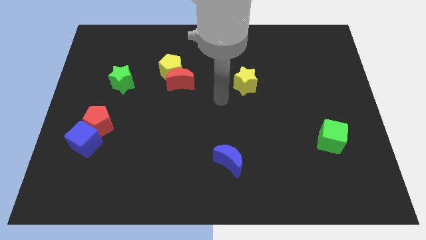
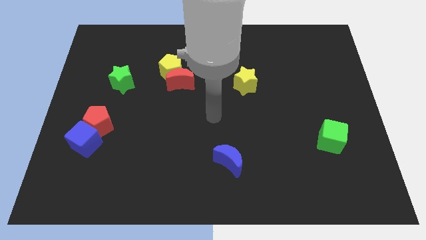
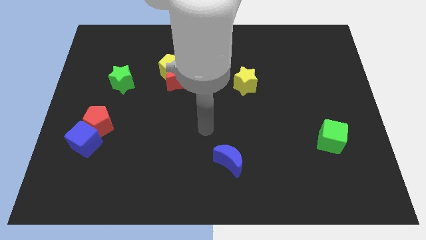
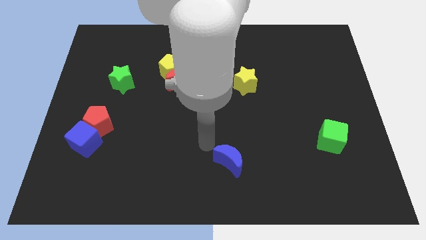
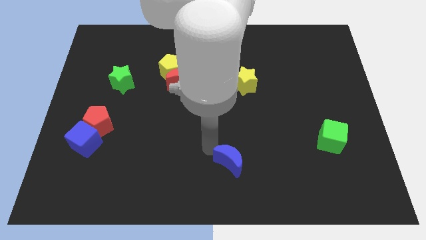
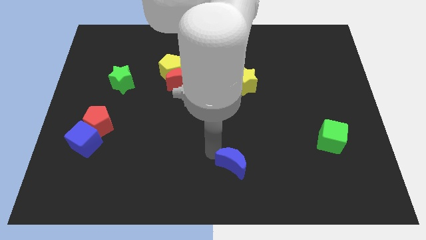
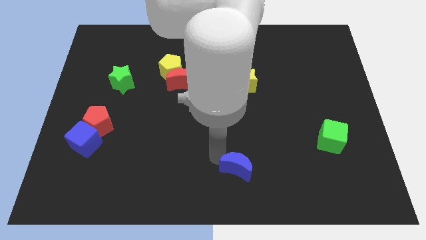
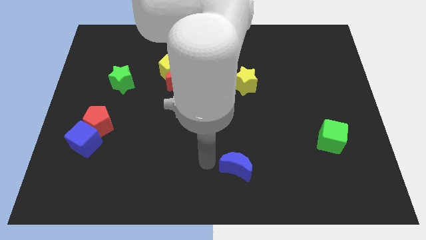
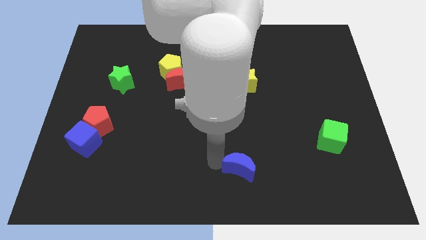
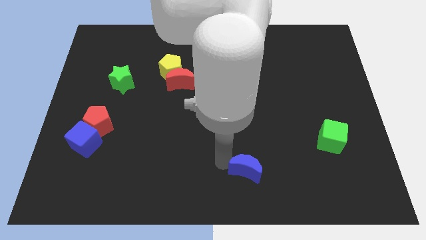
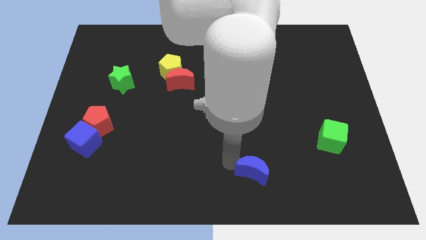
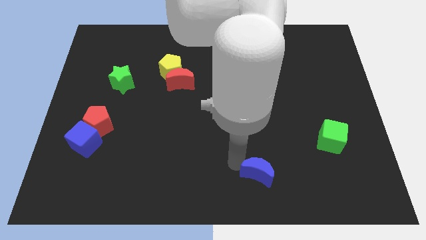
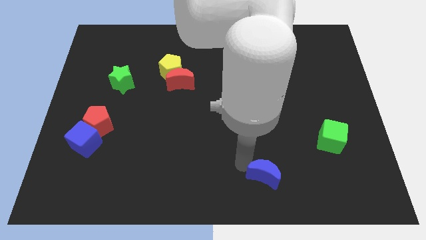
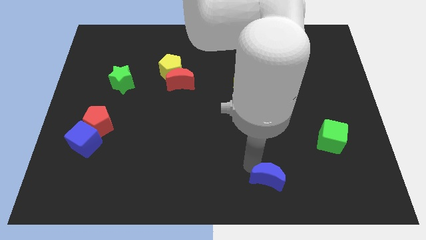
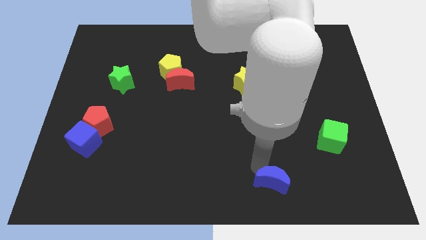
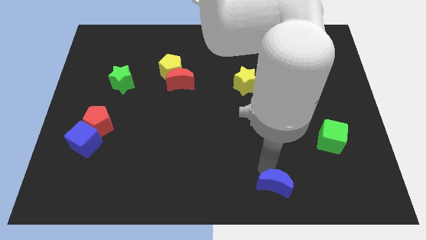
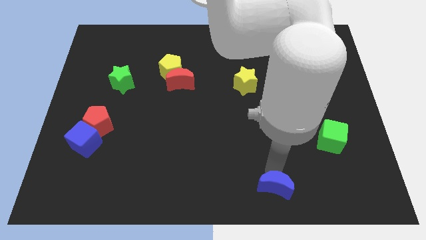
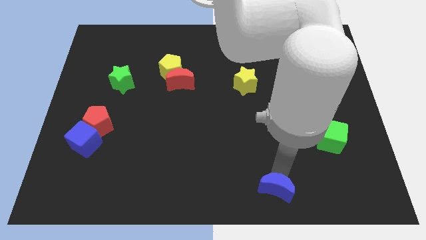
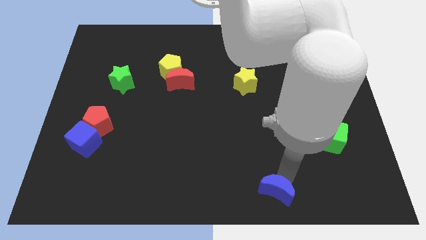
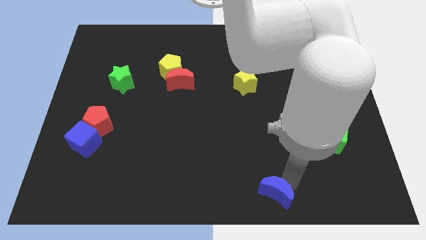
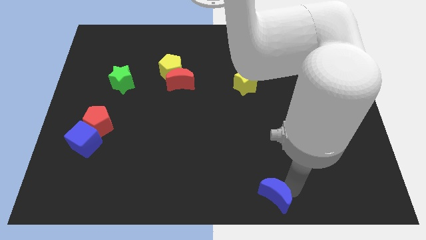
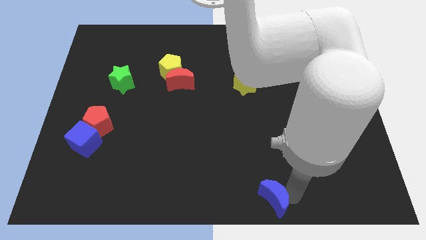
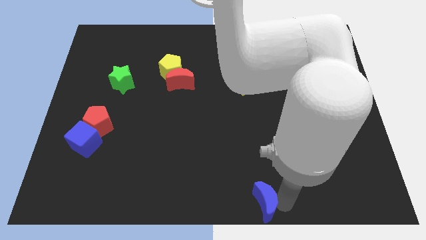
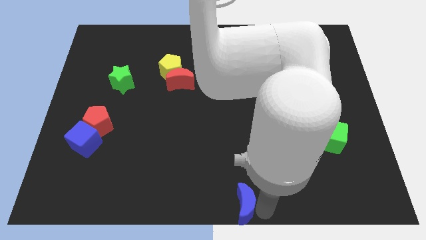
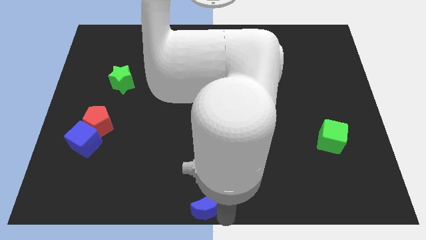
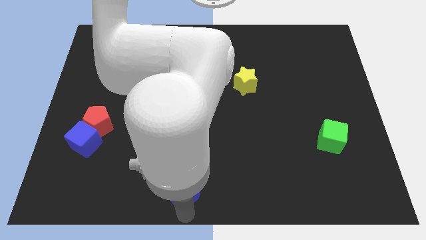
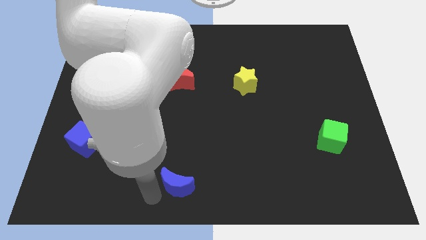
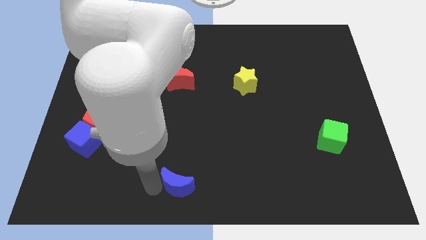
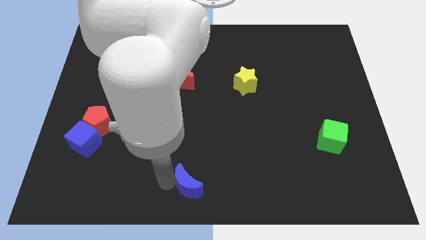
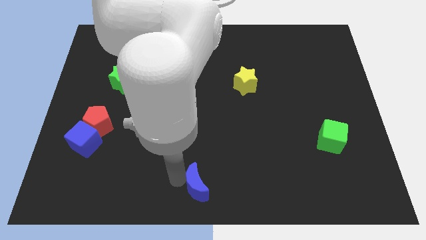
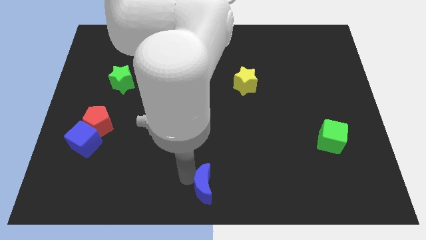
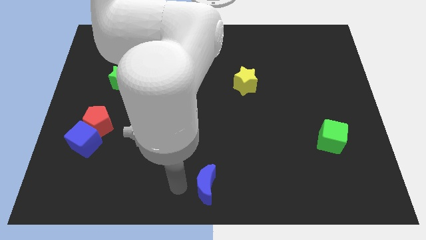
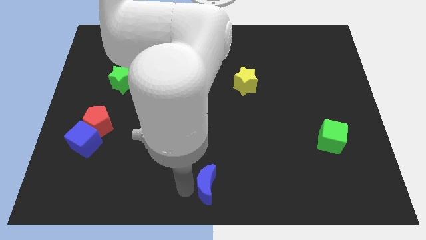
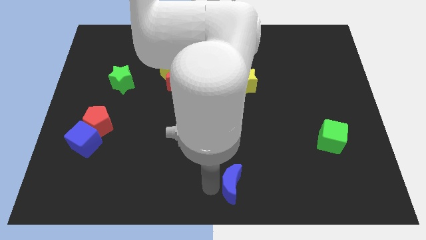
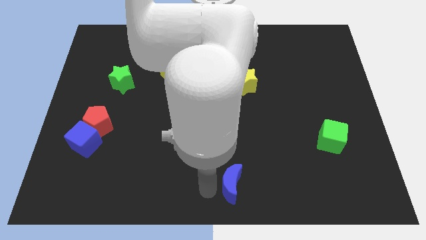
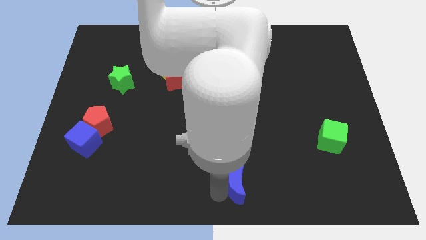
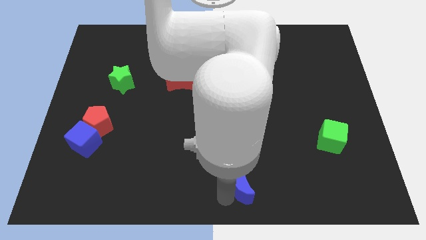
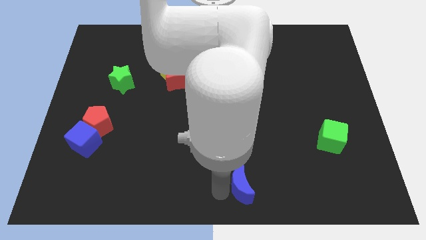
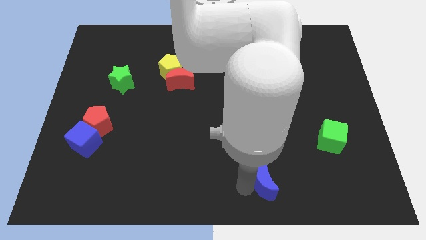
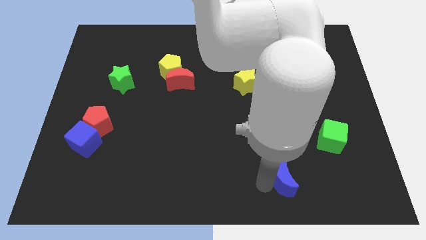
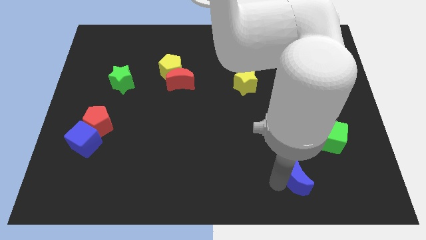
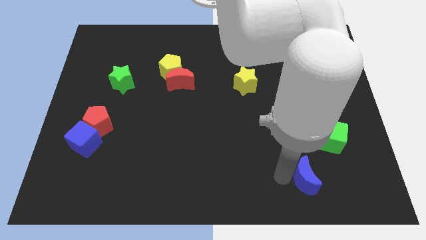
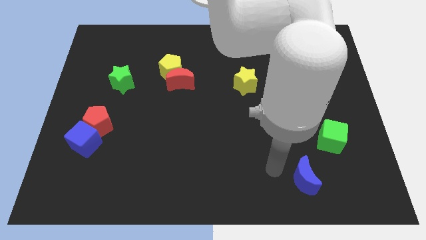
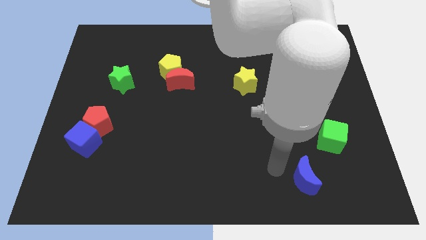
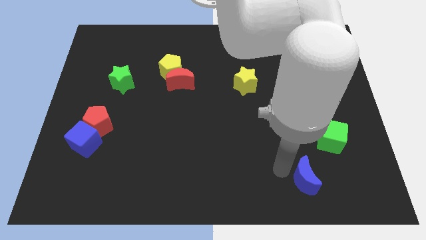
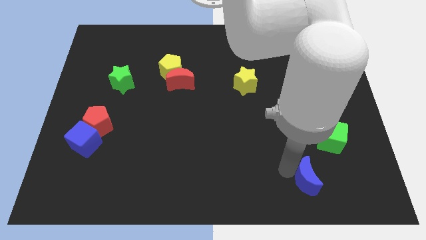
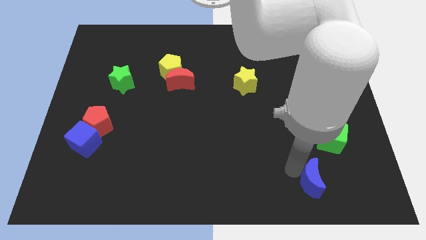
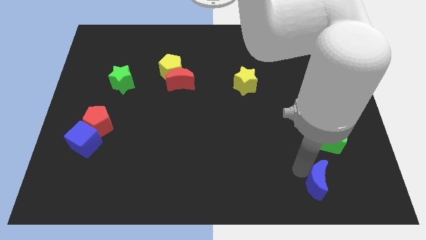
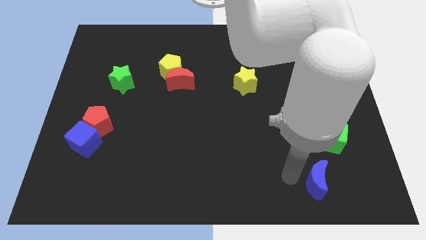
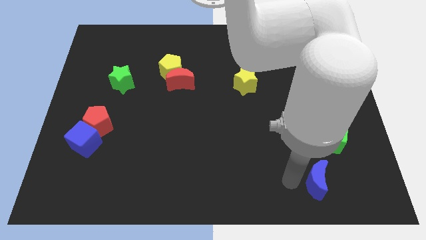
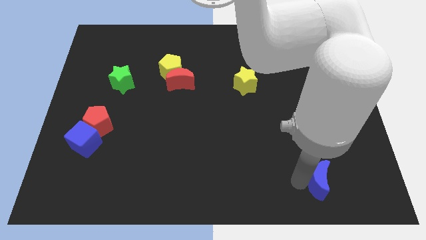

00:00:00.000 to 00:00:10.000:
slide the blue moon to the bottom side of the green cube

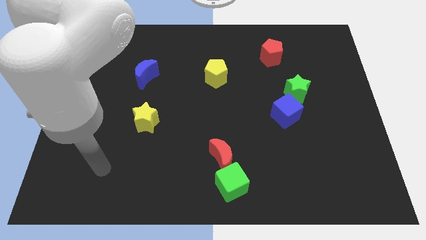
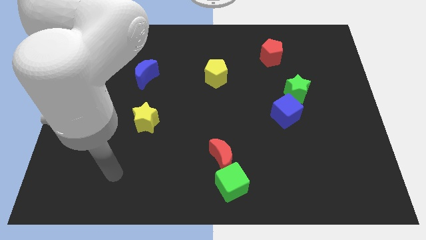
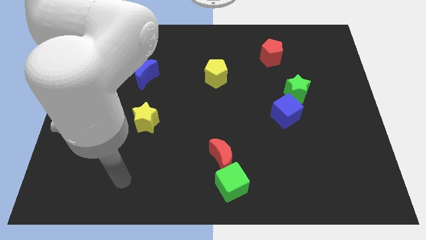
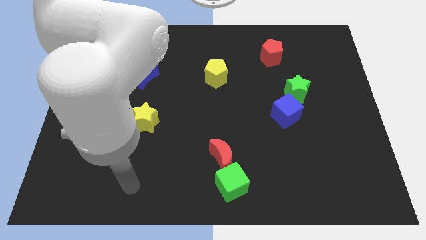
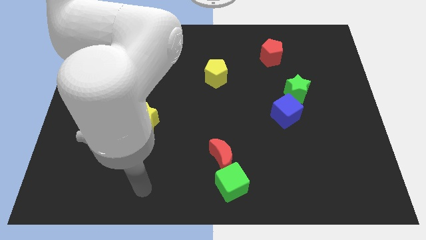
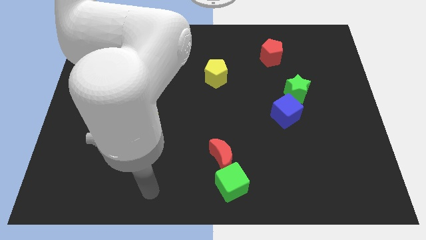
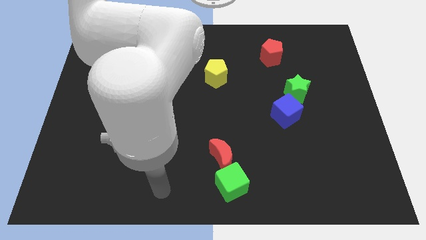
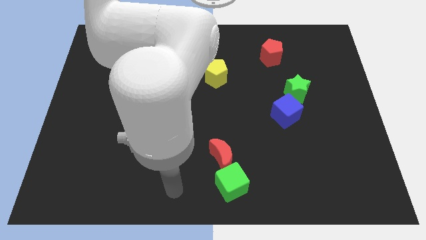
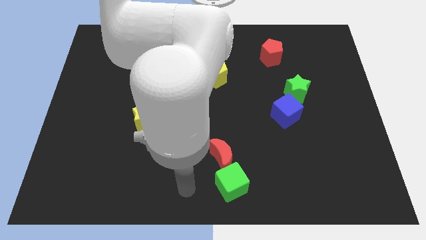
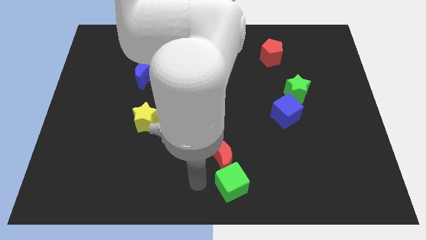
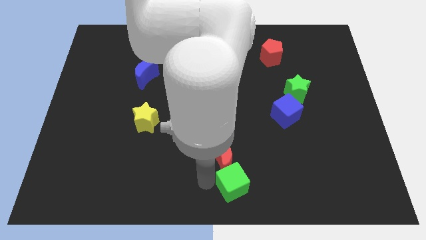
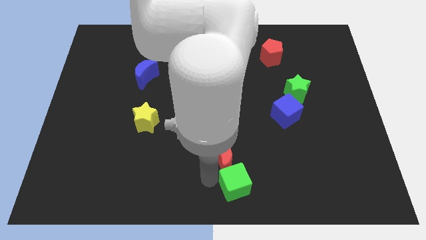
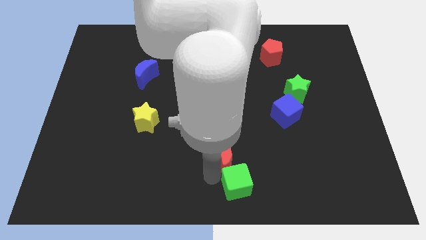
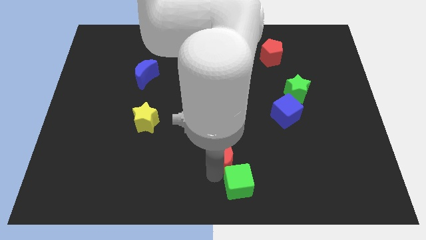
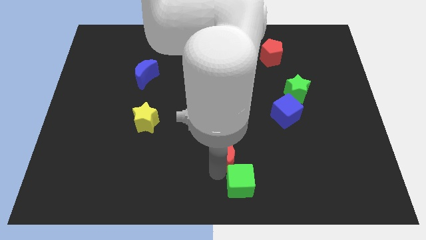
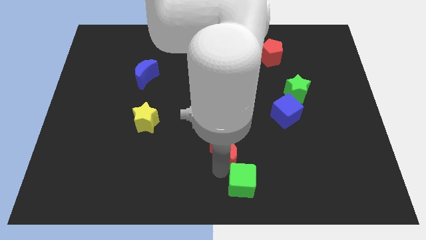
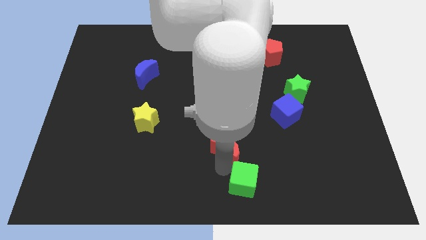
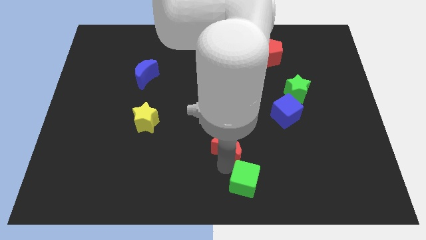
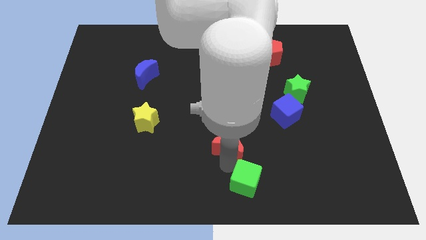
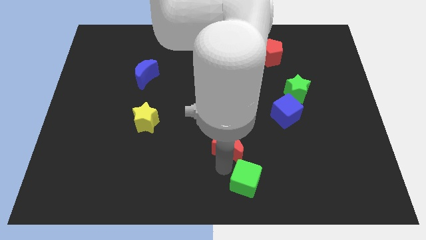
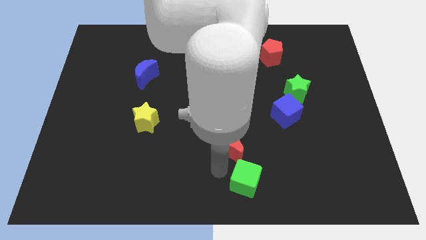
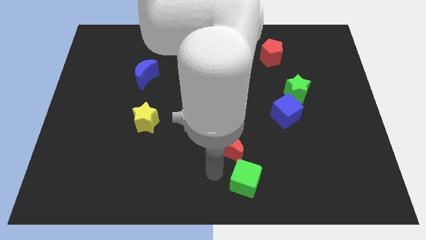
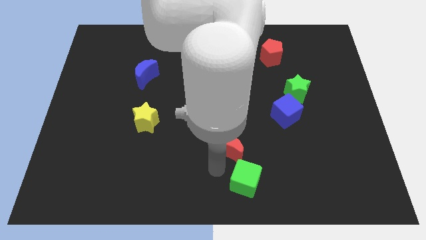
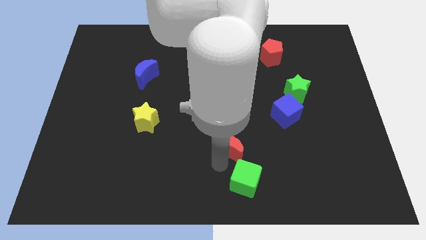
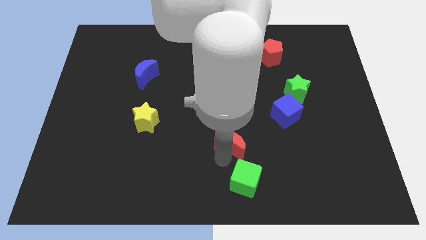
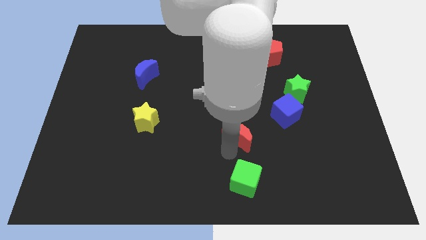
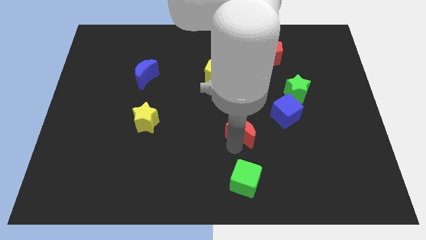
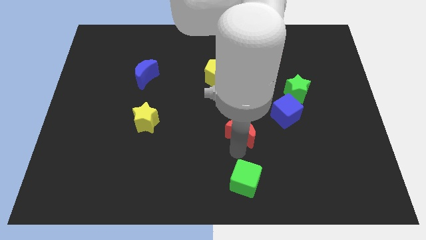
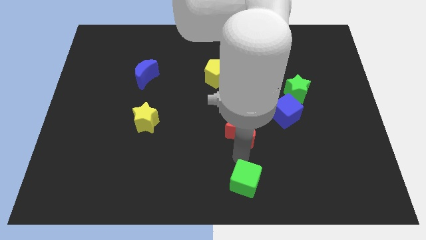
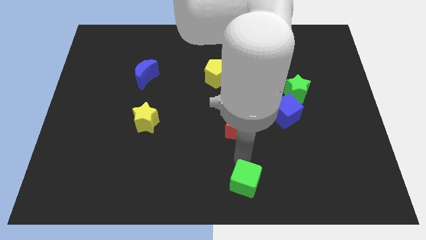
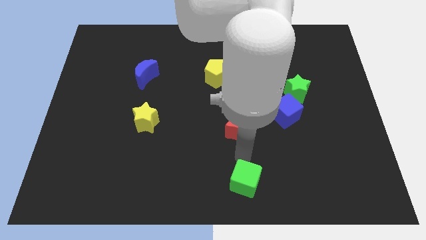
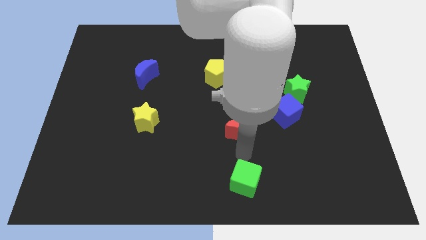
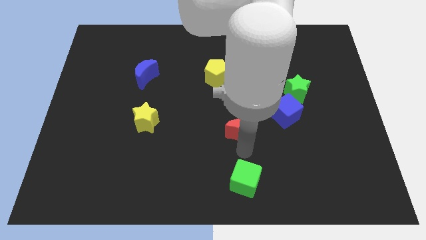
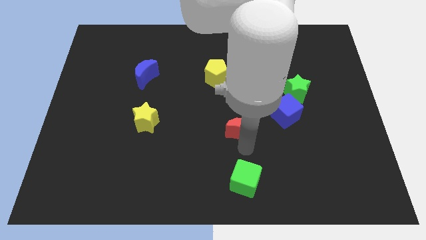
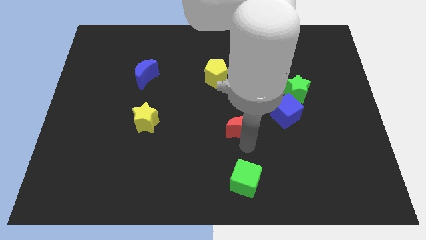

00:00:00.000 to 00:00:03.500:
move the red moon to the left of the blue cube
